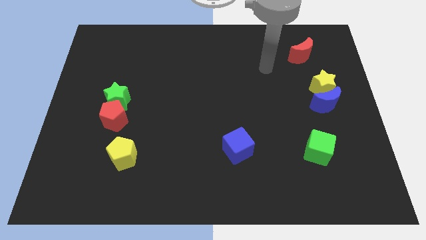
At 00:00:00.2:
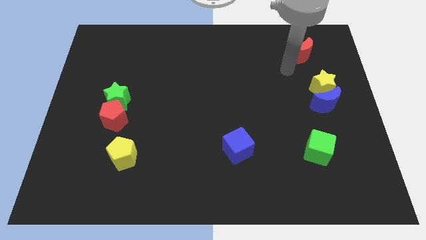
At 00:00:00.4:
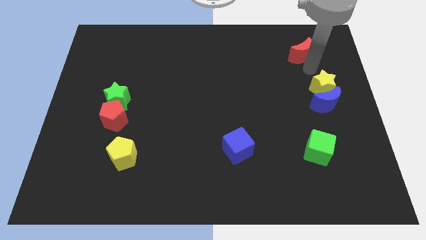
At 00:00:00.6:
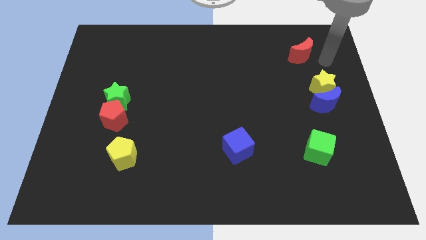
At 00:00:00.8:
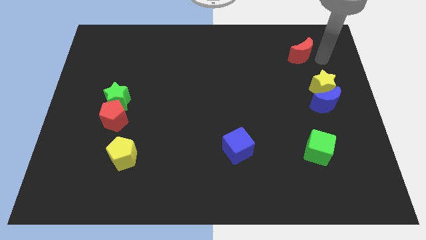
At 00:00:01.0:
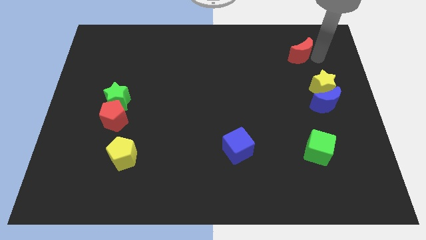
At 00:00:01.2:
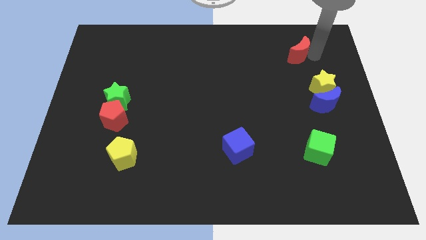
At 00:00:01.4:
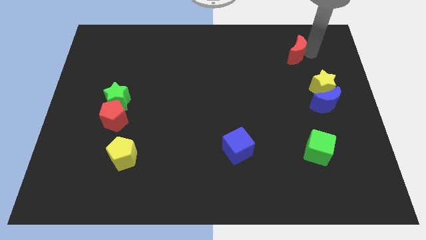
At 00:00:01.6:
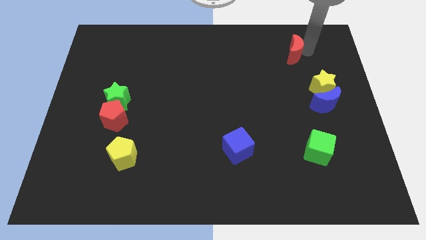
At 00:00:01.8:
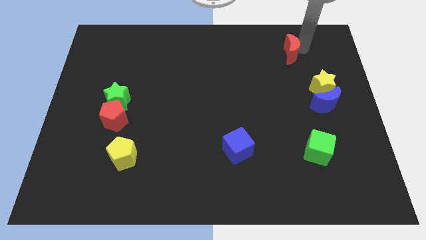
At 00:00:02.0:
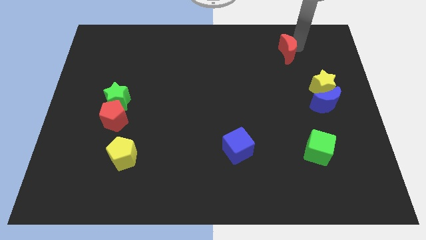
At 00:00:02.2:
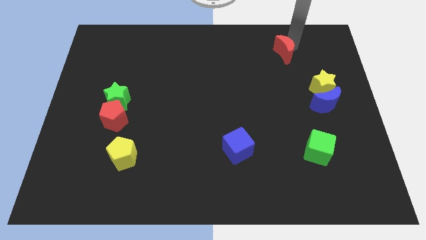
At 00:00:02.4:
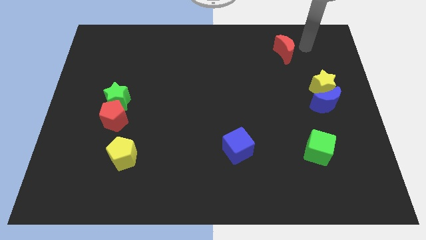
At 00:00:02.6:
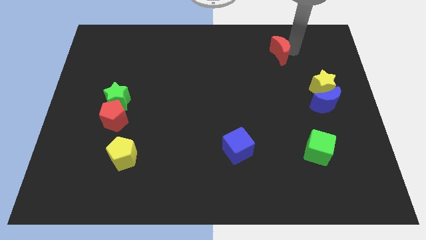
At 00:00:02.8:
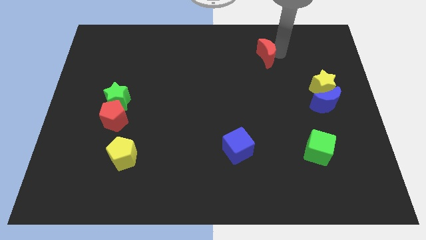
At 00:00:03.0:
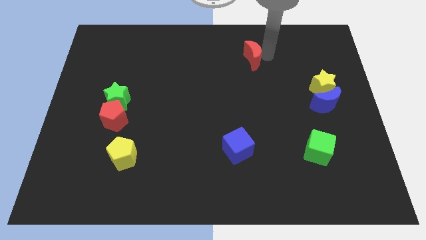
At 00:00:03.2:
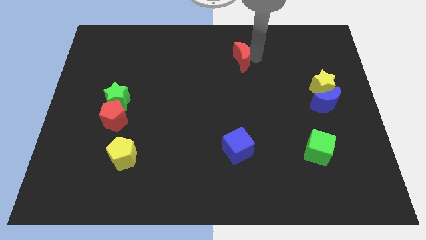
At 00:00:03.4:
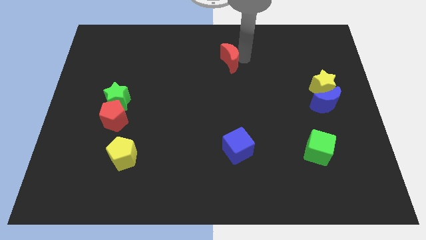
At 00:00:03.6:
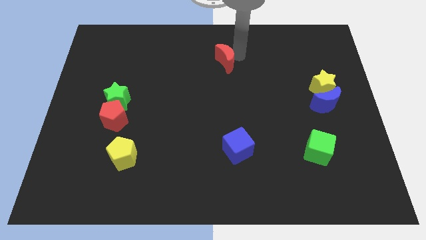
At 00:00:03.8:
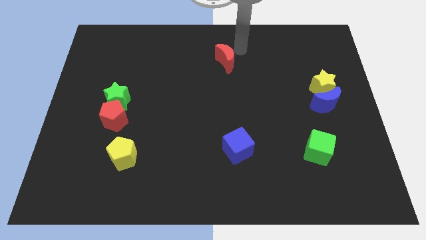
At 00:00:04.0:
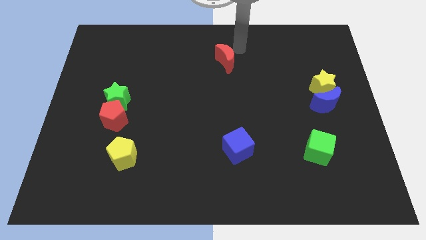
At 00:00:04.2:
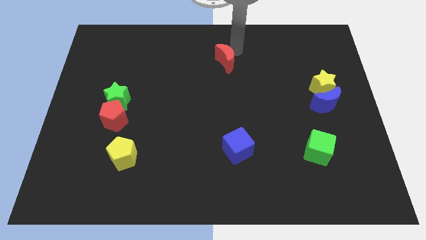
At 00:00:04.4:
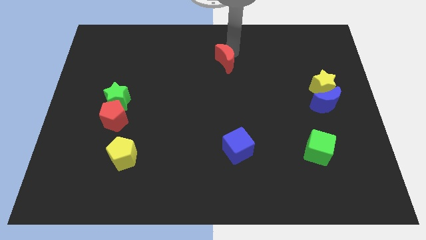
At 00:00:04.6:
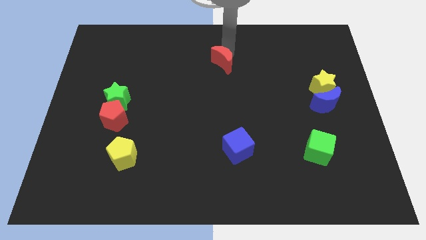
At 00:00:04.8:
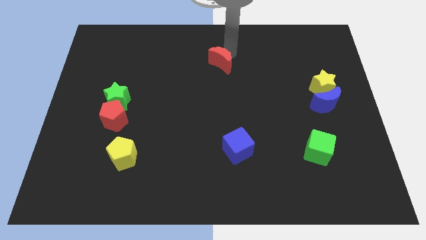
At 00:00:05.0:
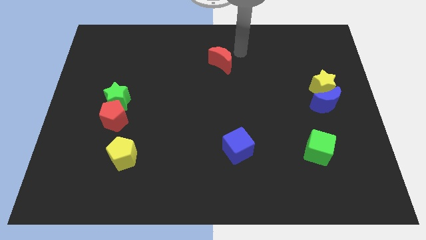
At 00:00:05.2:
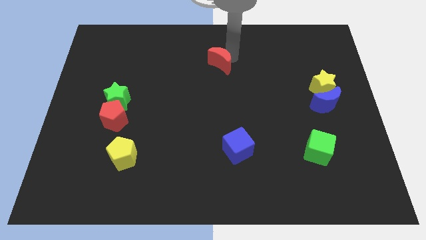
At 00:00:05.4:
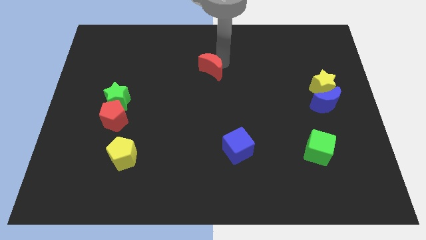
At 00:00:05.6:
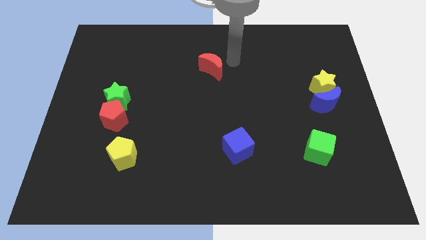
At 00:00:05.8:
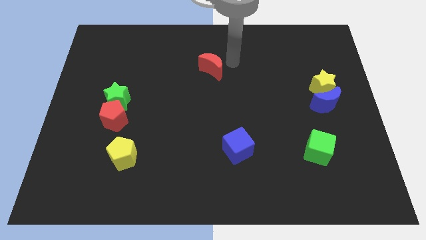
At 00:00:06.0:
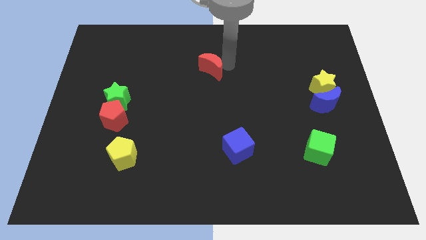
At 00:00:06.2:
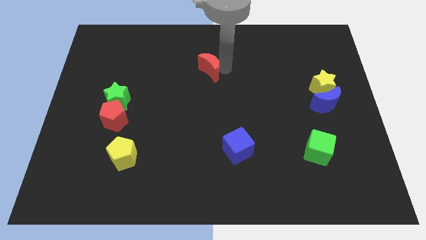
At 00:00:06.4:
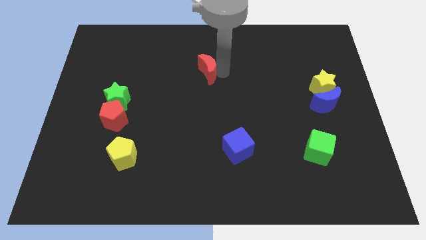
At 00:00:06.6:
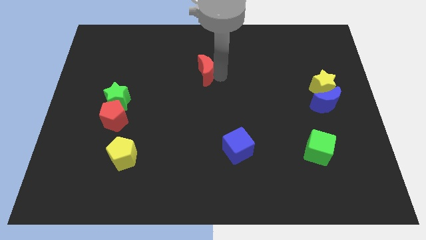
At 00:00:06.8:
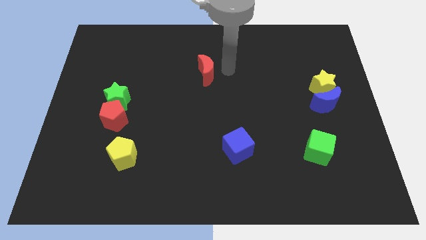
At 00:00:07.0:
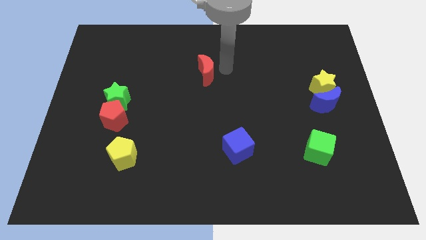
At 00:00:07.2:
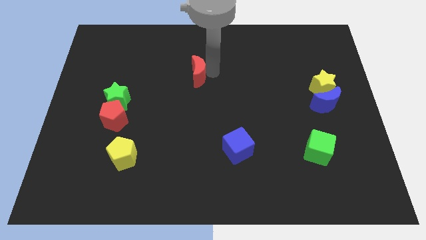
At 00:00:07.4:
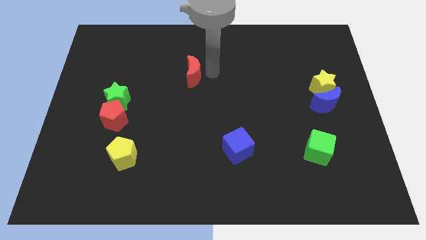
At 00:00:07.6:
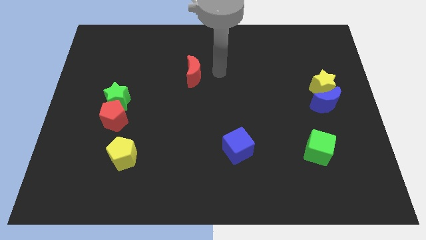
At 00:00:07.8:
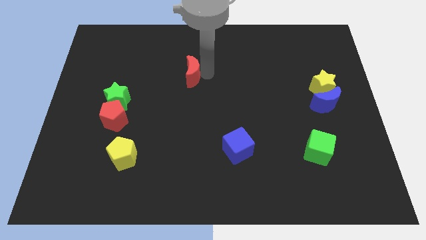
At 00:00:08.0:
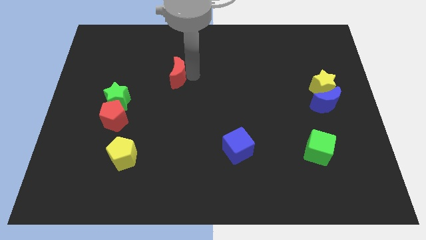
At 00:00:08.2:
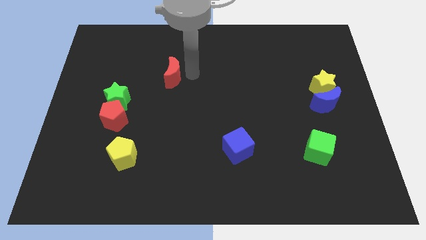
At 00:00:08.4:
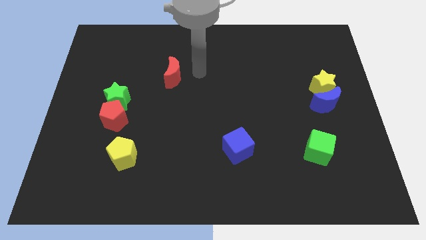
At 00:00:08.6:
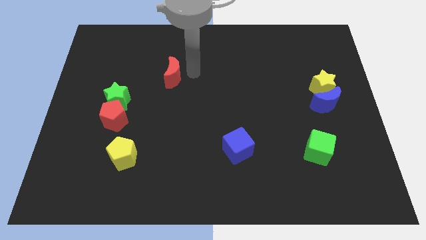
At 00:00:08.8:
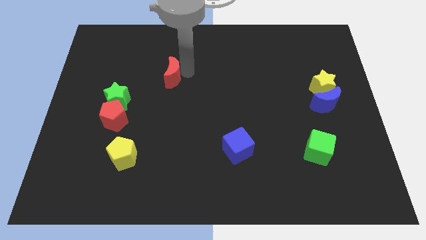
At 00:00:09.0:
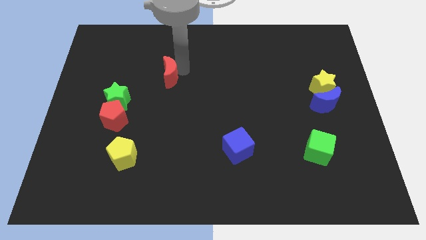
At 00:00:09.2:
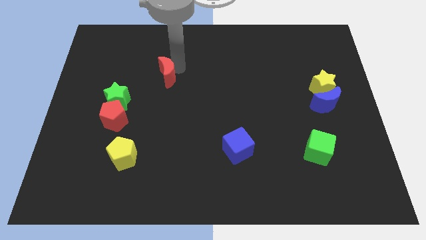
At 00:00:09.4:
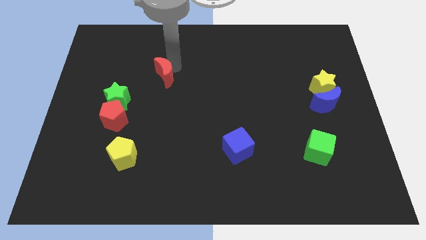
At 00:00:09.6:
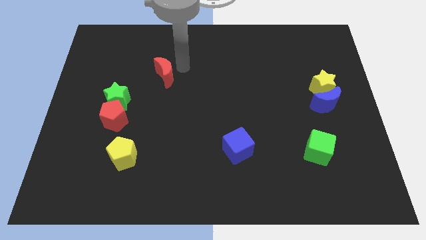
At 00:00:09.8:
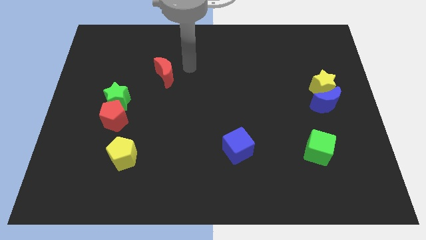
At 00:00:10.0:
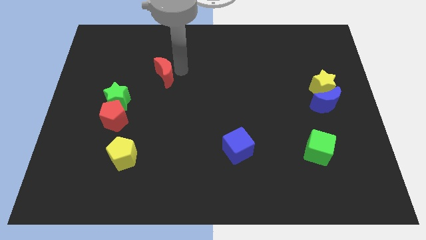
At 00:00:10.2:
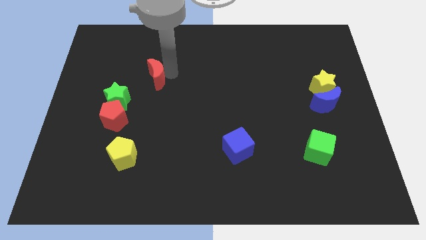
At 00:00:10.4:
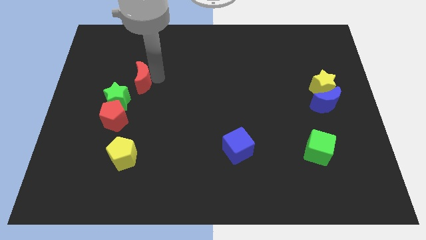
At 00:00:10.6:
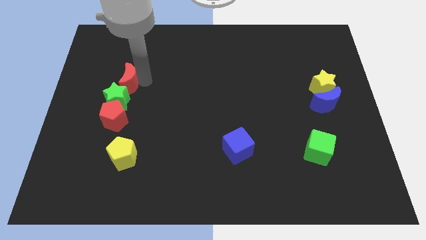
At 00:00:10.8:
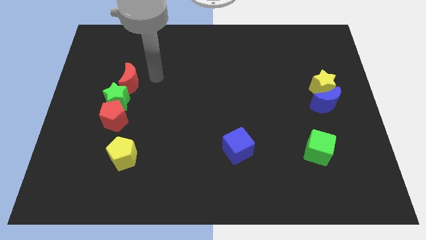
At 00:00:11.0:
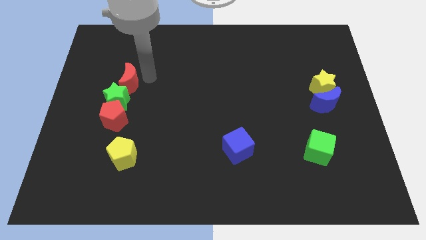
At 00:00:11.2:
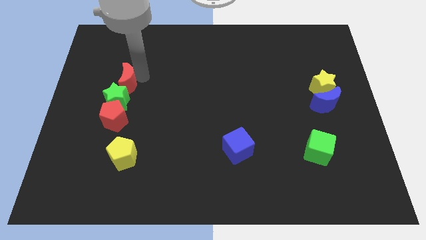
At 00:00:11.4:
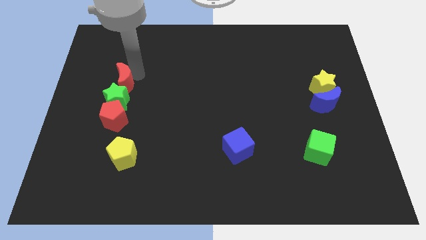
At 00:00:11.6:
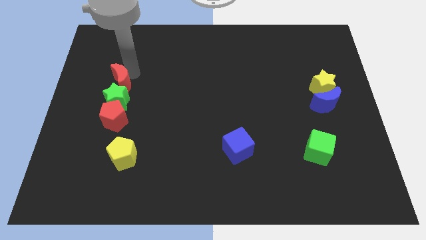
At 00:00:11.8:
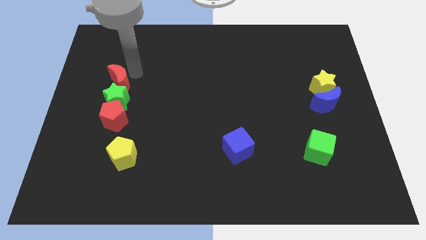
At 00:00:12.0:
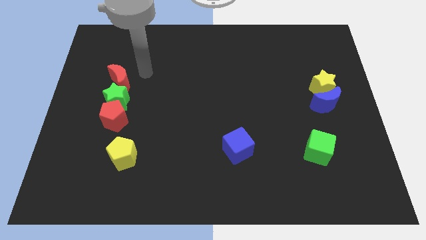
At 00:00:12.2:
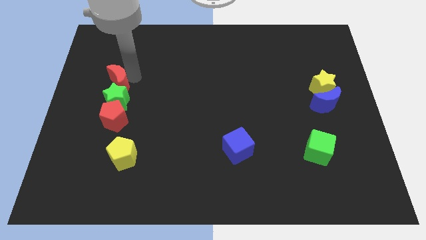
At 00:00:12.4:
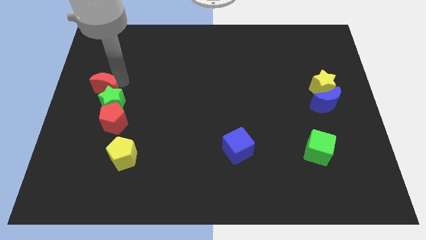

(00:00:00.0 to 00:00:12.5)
put the red moon to the center left
